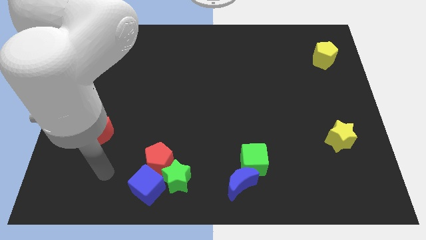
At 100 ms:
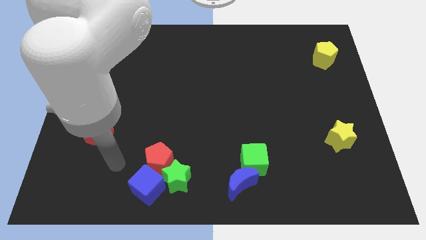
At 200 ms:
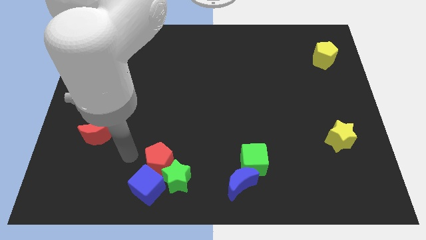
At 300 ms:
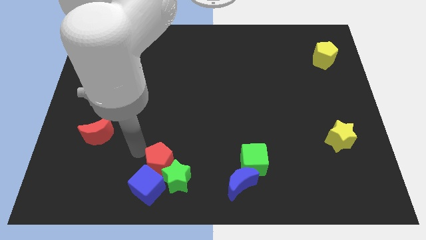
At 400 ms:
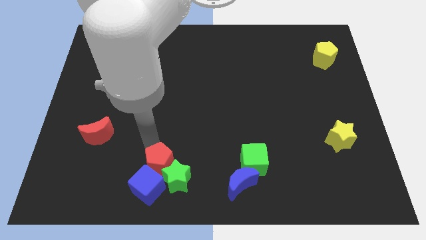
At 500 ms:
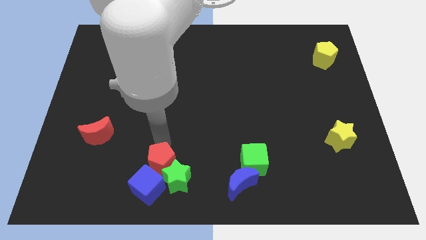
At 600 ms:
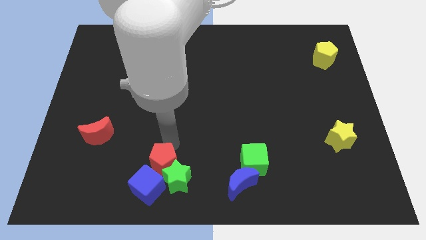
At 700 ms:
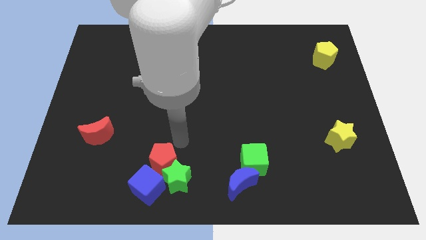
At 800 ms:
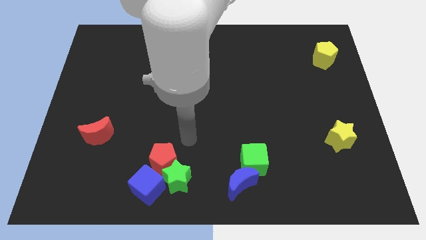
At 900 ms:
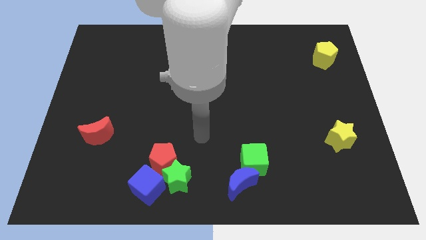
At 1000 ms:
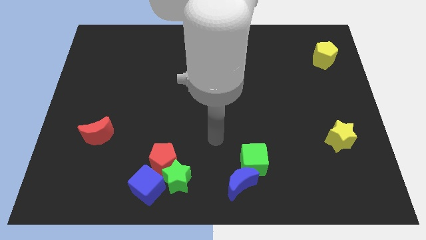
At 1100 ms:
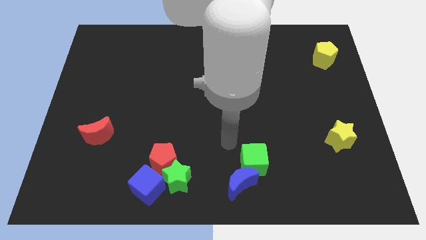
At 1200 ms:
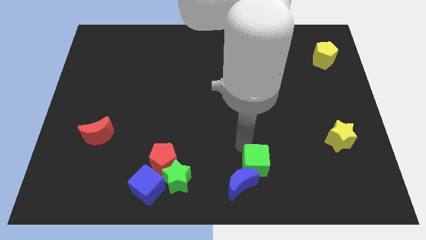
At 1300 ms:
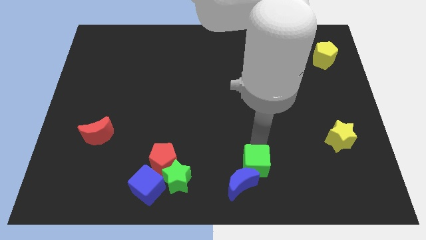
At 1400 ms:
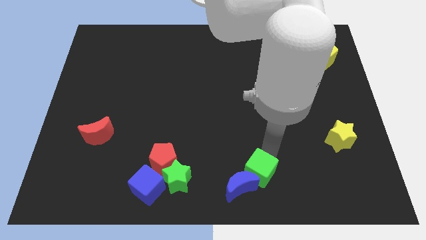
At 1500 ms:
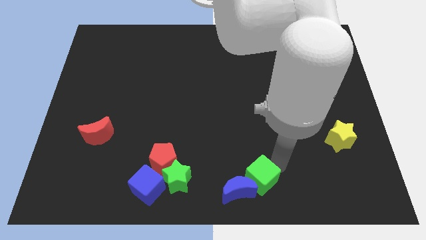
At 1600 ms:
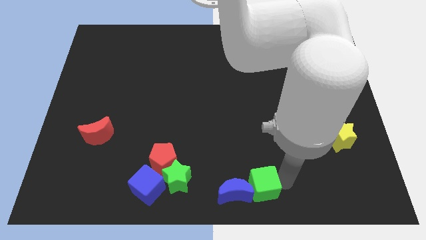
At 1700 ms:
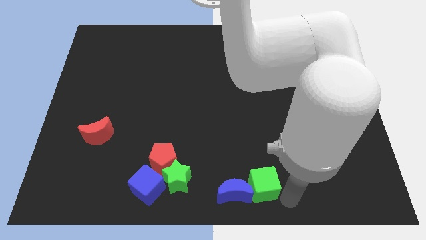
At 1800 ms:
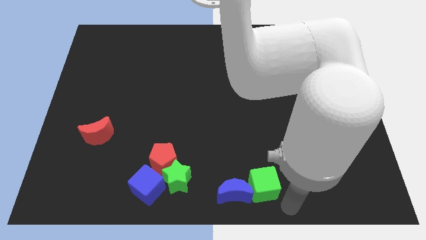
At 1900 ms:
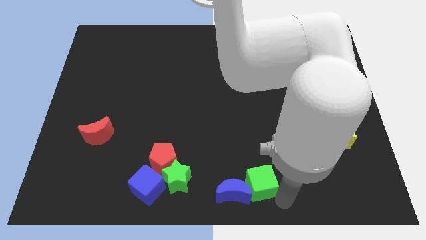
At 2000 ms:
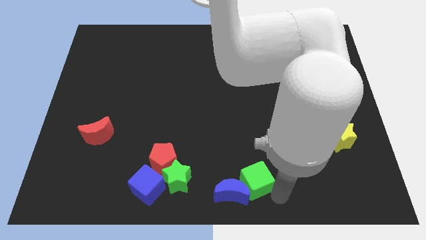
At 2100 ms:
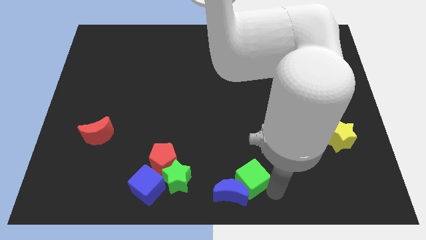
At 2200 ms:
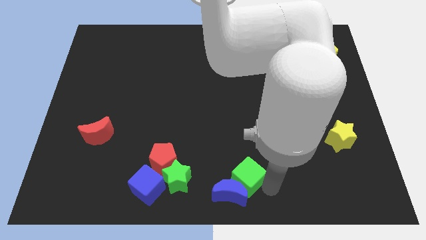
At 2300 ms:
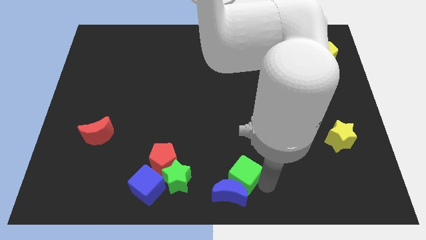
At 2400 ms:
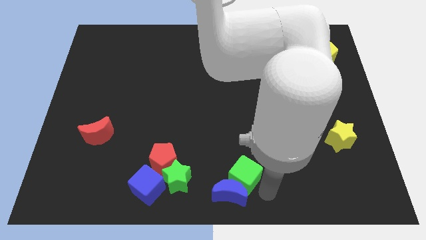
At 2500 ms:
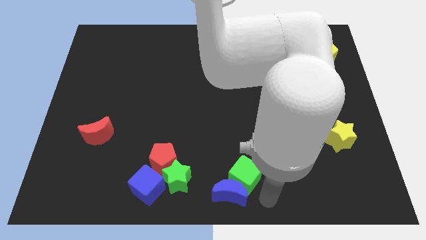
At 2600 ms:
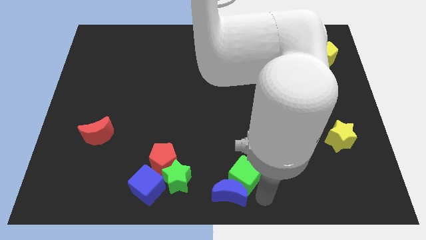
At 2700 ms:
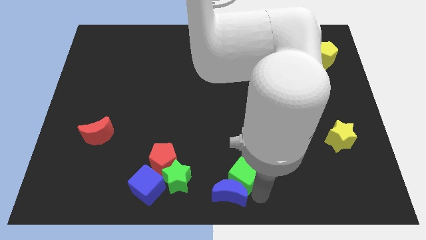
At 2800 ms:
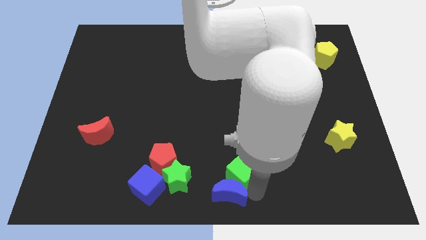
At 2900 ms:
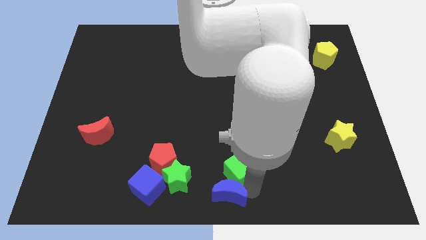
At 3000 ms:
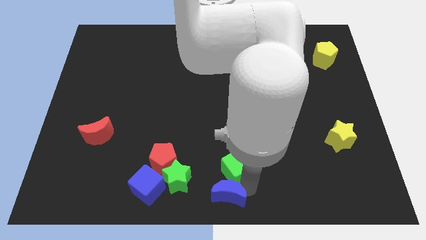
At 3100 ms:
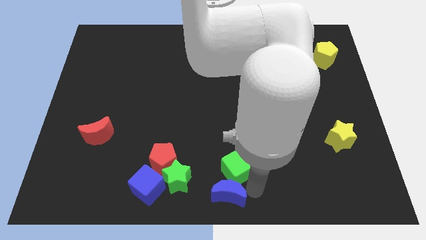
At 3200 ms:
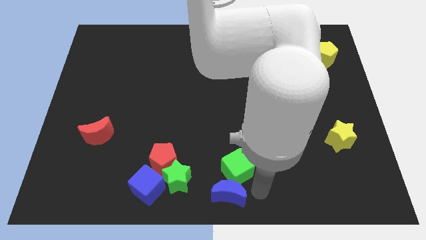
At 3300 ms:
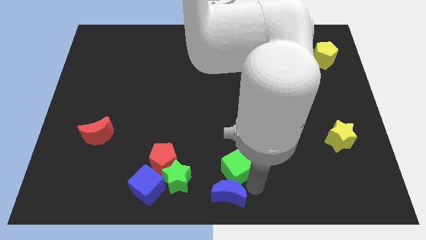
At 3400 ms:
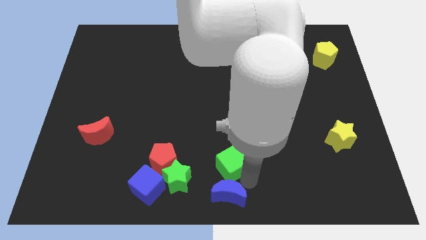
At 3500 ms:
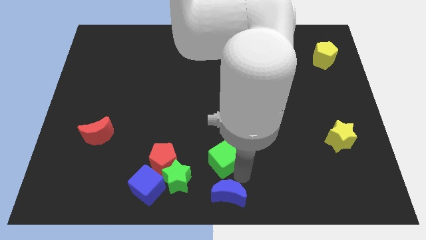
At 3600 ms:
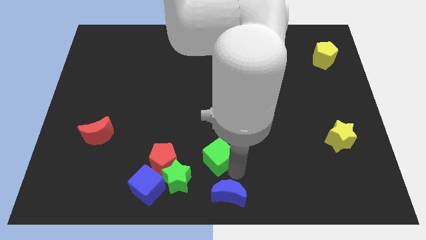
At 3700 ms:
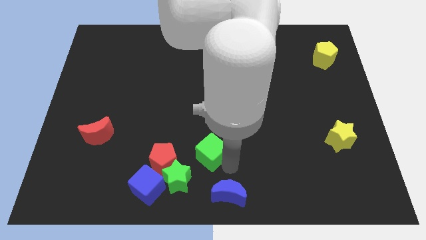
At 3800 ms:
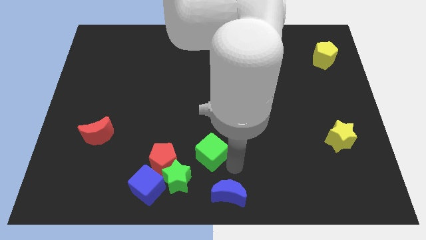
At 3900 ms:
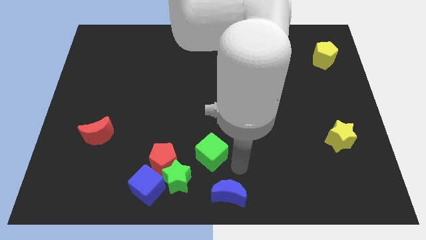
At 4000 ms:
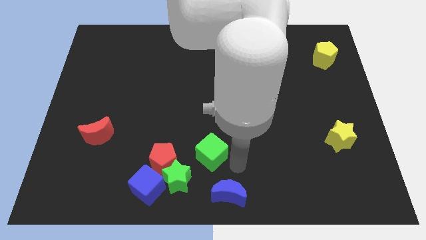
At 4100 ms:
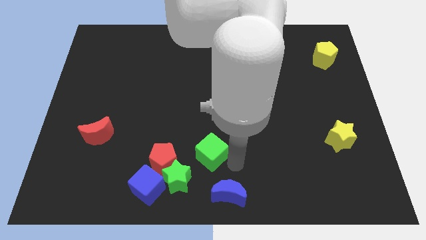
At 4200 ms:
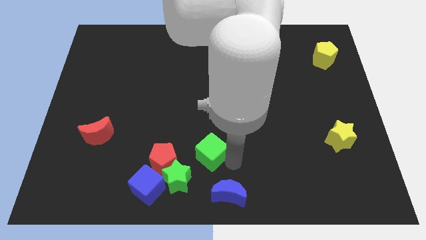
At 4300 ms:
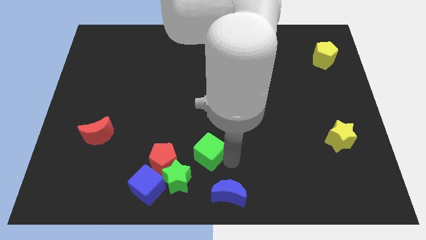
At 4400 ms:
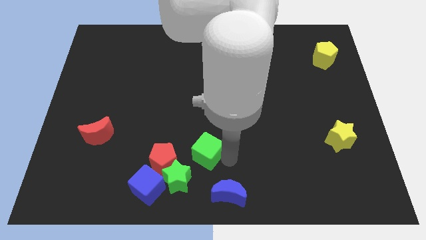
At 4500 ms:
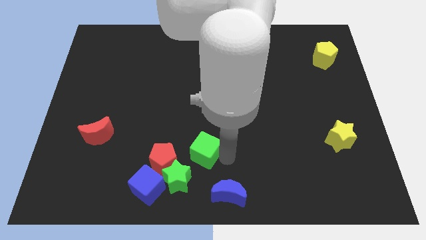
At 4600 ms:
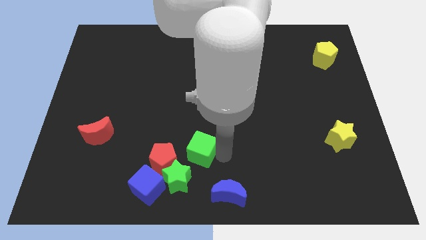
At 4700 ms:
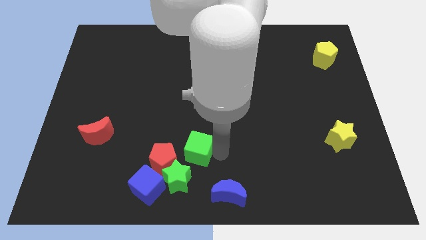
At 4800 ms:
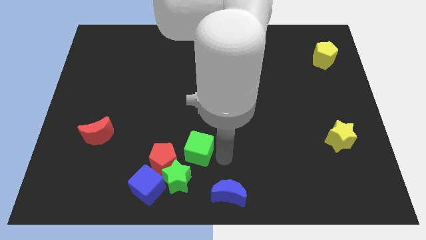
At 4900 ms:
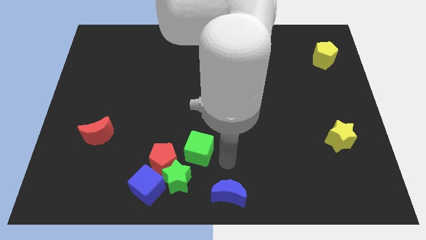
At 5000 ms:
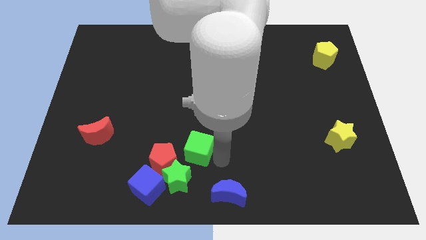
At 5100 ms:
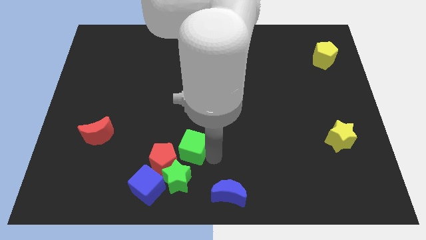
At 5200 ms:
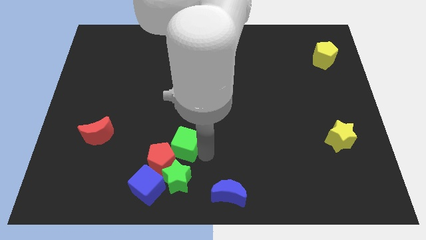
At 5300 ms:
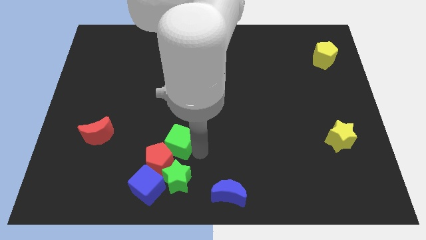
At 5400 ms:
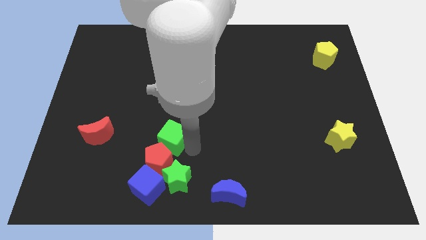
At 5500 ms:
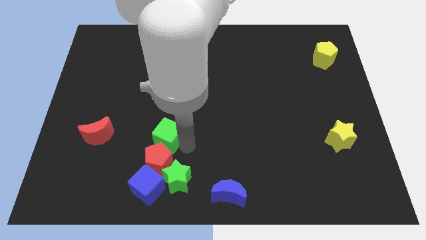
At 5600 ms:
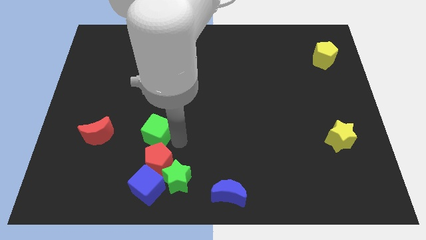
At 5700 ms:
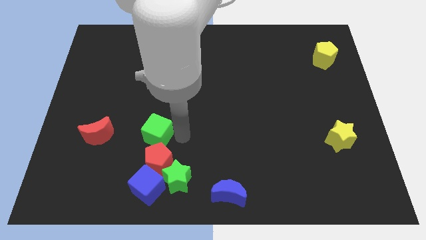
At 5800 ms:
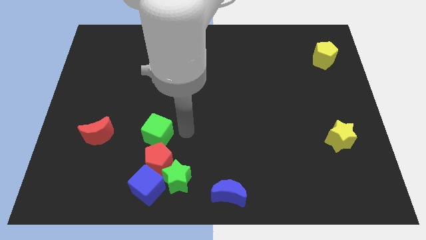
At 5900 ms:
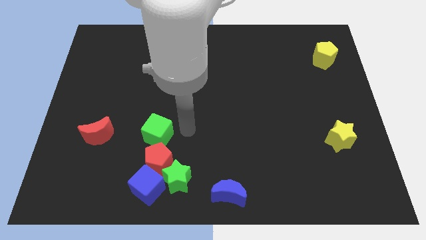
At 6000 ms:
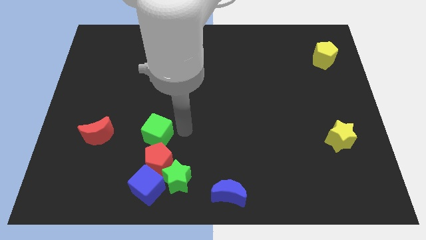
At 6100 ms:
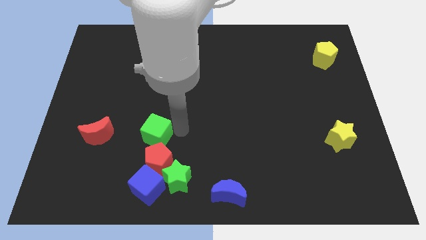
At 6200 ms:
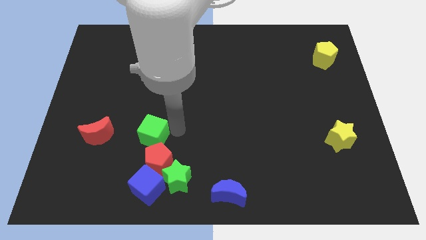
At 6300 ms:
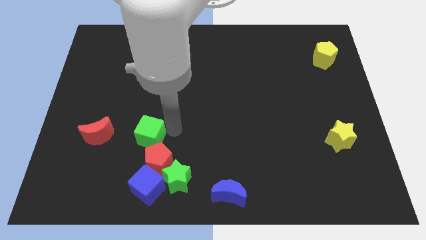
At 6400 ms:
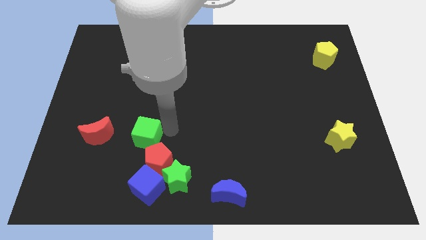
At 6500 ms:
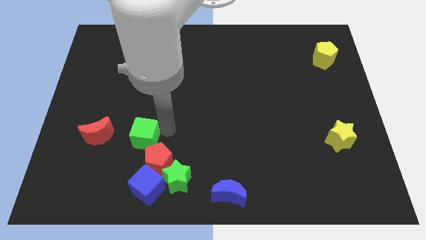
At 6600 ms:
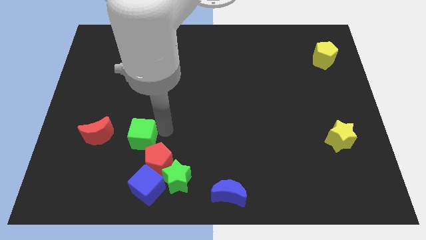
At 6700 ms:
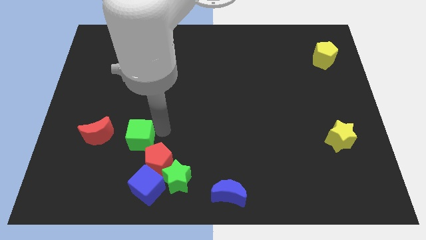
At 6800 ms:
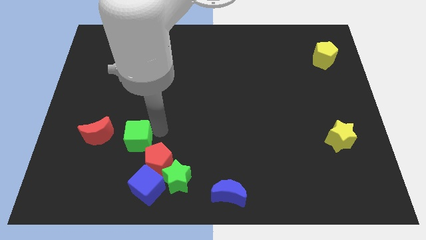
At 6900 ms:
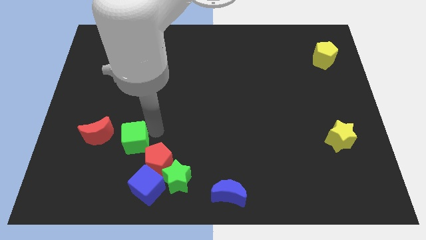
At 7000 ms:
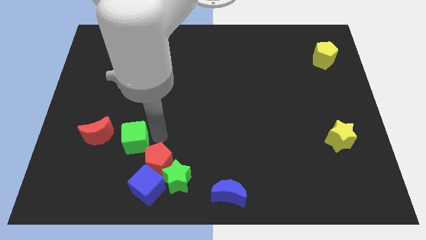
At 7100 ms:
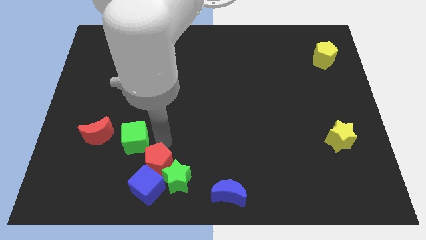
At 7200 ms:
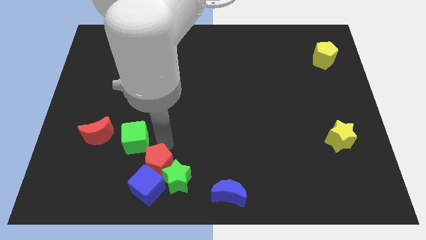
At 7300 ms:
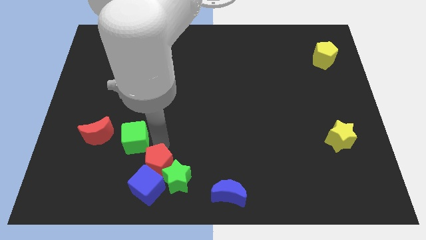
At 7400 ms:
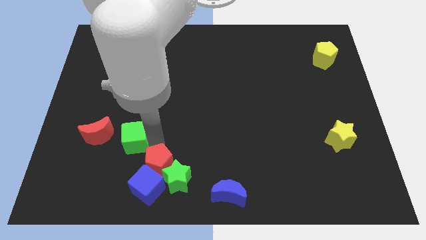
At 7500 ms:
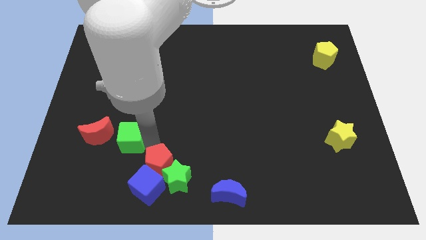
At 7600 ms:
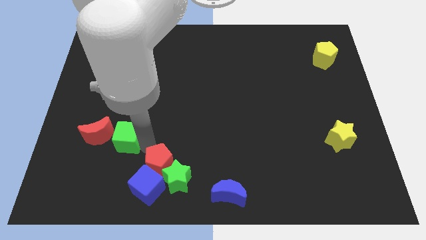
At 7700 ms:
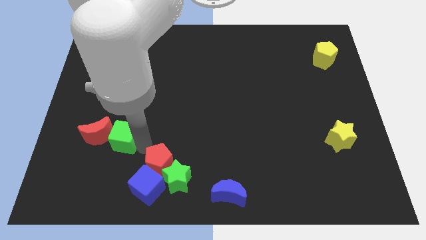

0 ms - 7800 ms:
push the green cube to the red moon
